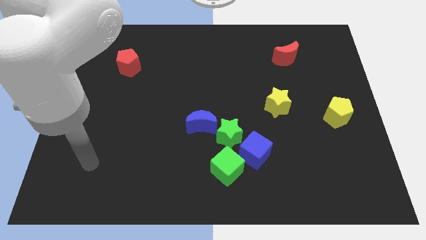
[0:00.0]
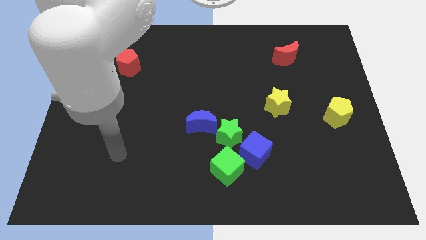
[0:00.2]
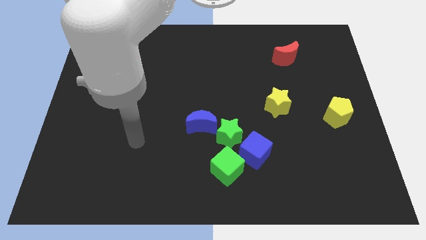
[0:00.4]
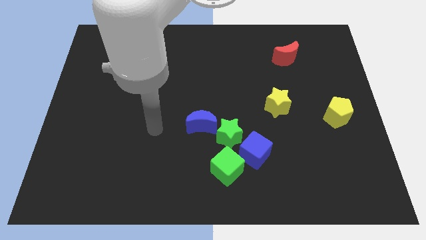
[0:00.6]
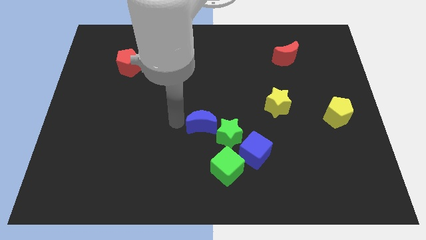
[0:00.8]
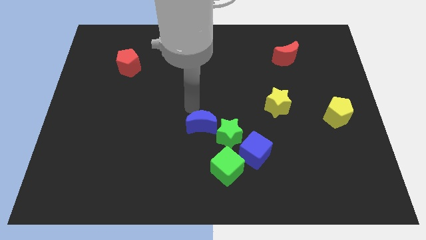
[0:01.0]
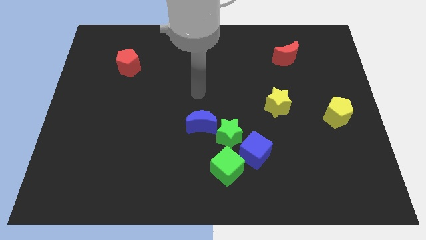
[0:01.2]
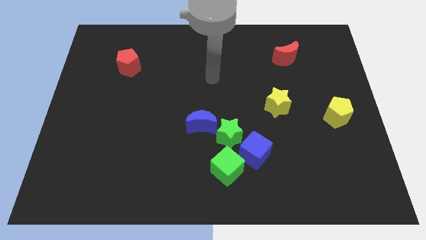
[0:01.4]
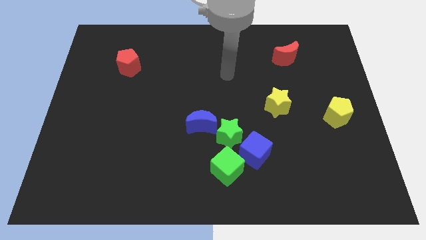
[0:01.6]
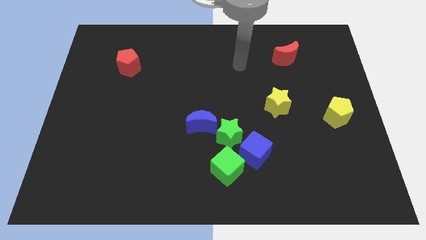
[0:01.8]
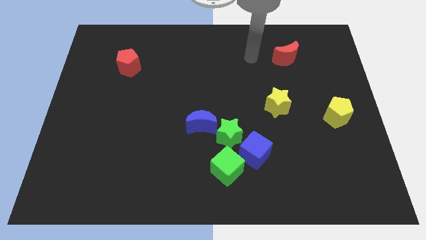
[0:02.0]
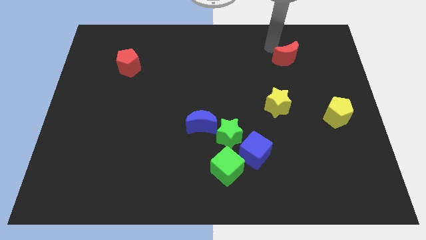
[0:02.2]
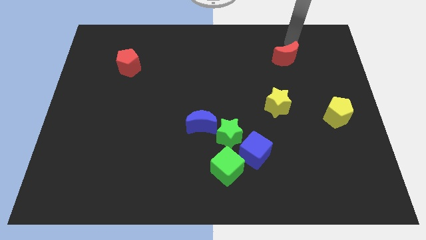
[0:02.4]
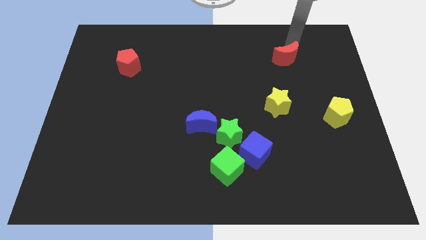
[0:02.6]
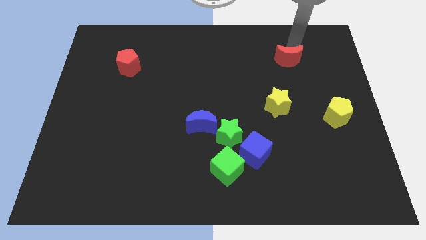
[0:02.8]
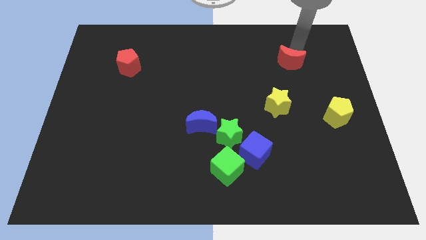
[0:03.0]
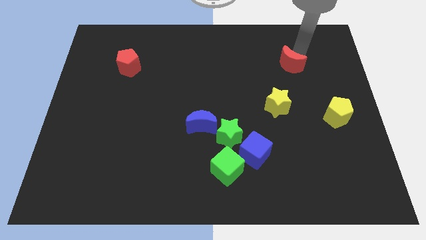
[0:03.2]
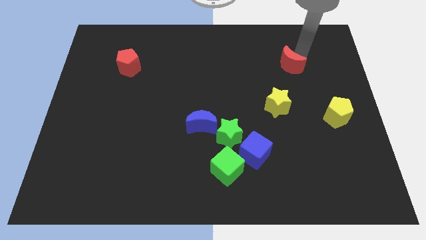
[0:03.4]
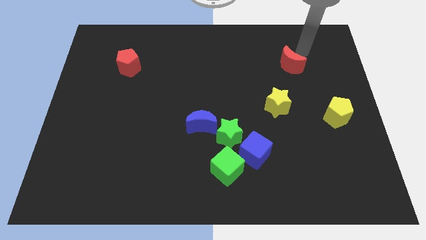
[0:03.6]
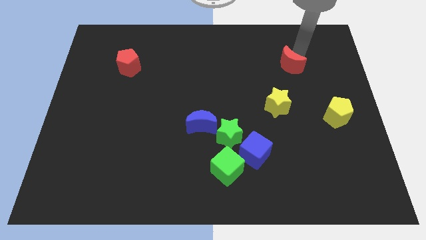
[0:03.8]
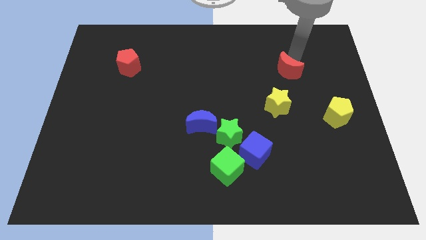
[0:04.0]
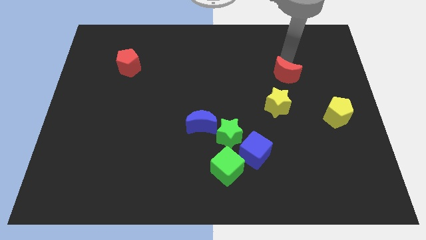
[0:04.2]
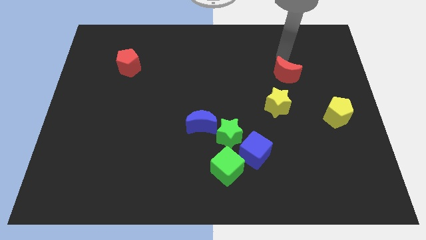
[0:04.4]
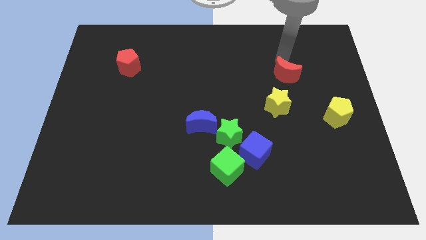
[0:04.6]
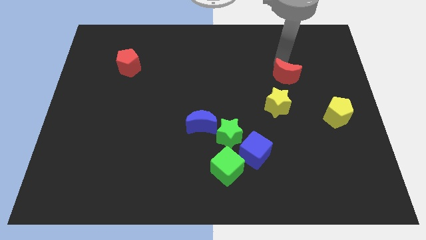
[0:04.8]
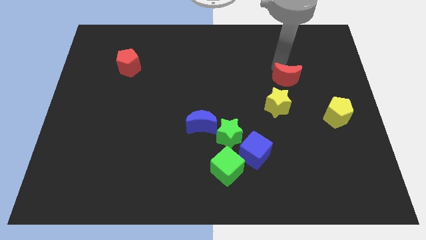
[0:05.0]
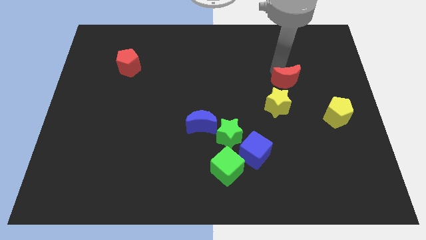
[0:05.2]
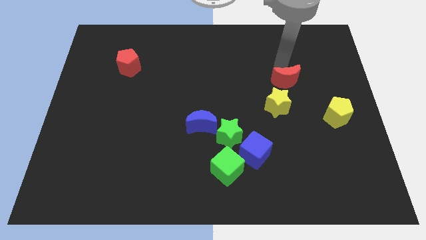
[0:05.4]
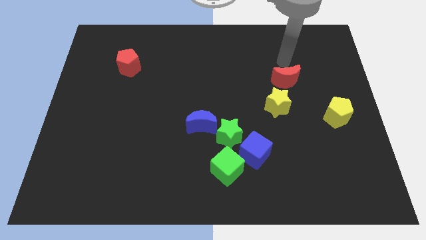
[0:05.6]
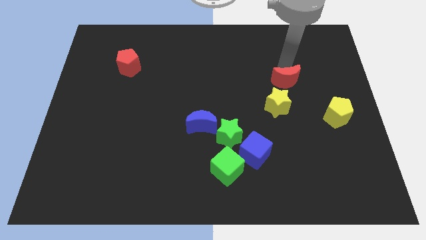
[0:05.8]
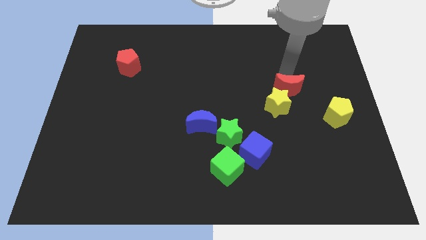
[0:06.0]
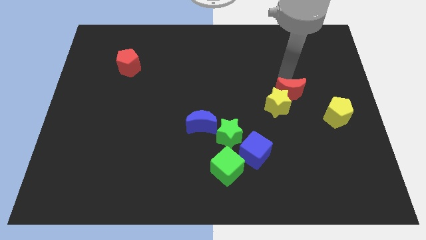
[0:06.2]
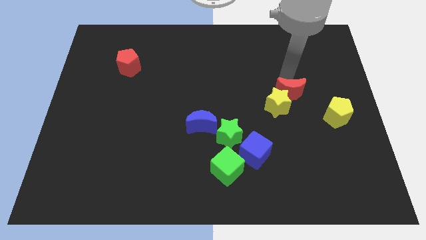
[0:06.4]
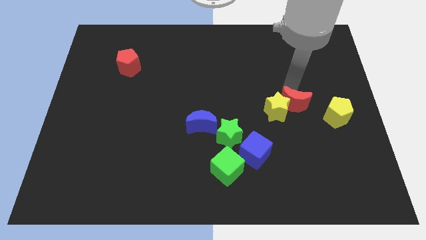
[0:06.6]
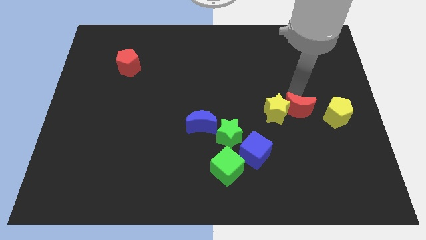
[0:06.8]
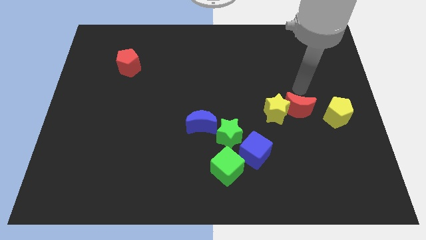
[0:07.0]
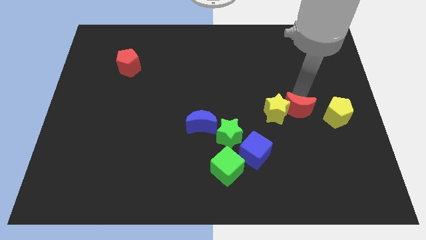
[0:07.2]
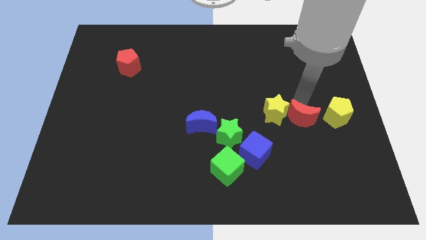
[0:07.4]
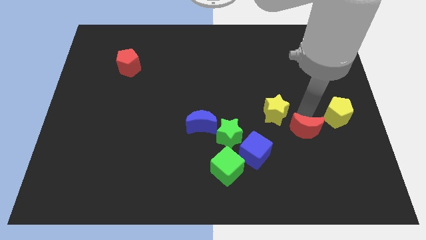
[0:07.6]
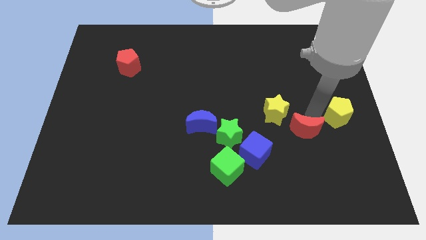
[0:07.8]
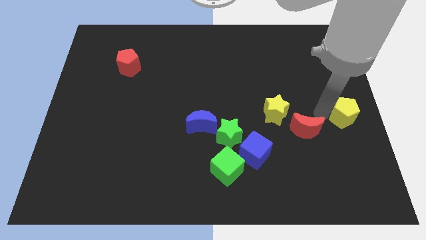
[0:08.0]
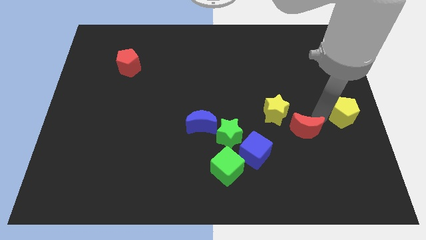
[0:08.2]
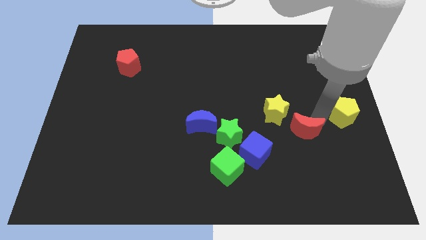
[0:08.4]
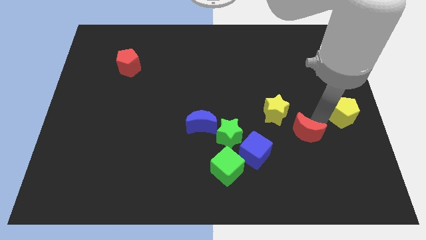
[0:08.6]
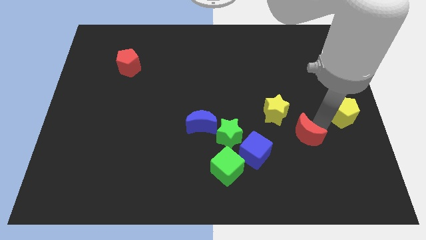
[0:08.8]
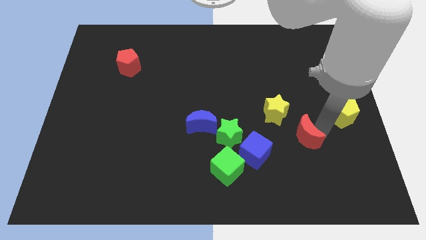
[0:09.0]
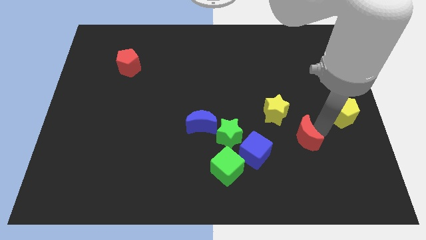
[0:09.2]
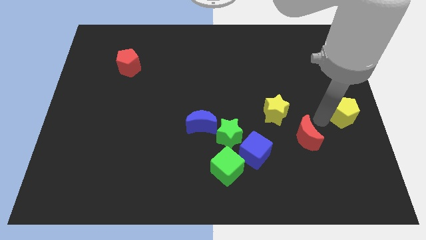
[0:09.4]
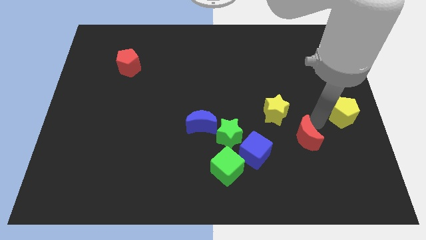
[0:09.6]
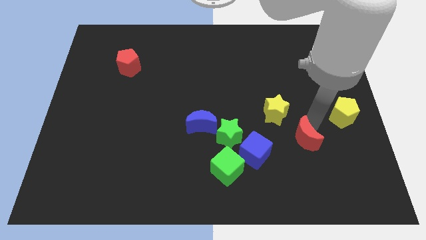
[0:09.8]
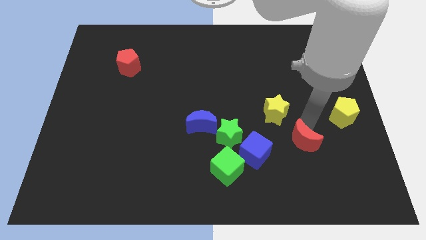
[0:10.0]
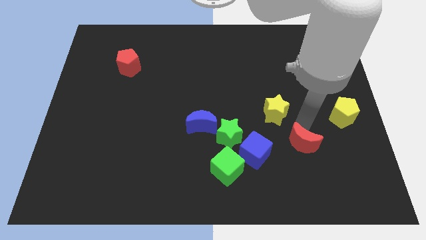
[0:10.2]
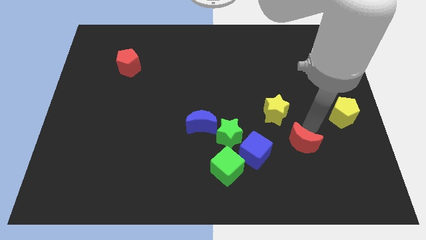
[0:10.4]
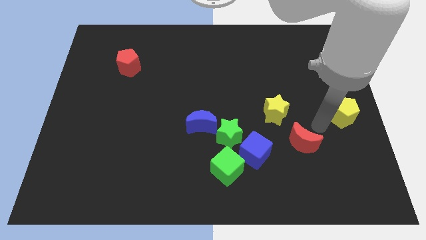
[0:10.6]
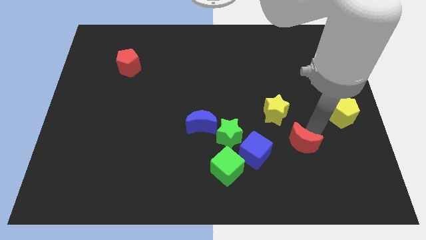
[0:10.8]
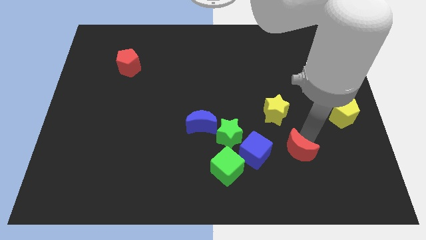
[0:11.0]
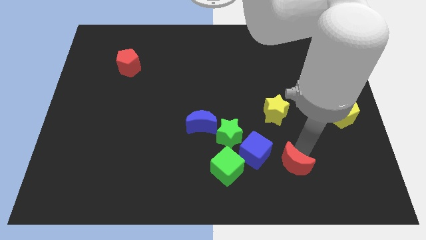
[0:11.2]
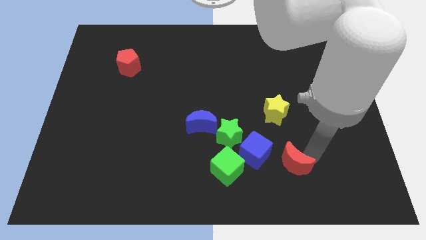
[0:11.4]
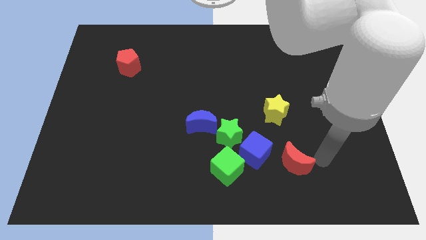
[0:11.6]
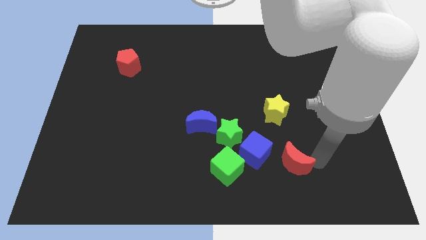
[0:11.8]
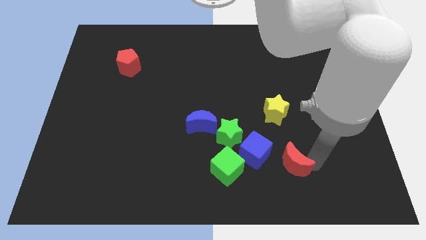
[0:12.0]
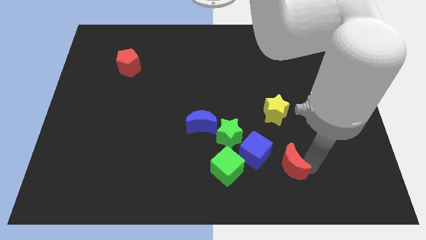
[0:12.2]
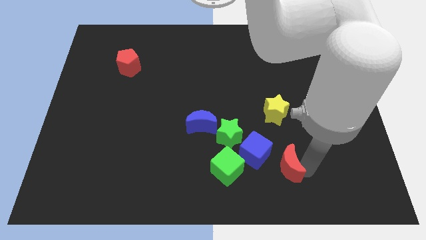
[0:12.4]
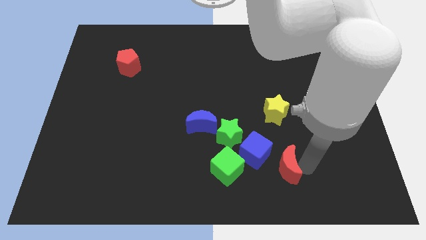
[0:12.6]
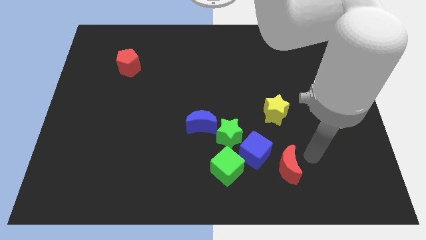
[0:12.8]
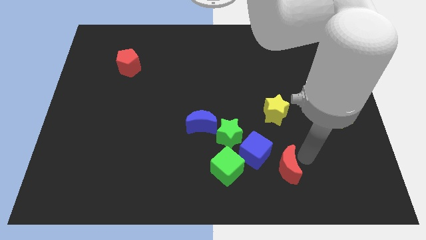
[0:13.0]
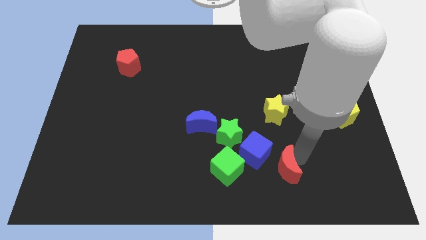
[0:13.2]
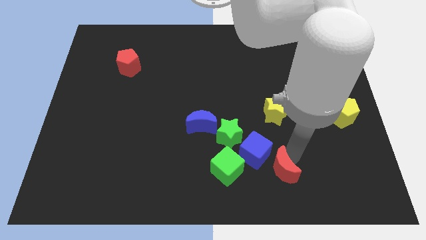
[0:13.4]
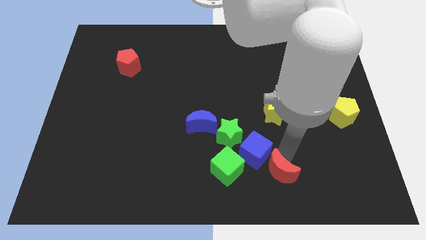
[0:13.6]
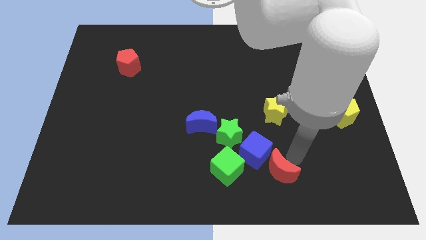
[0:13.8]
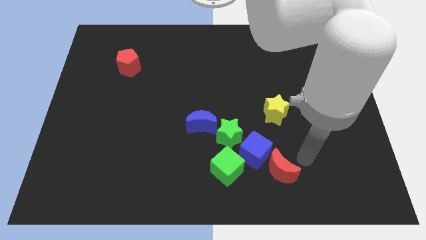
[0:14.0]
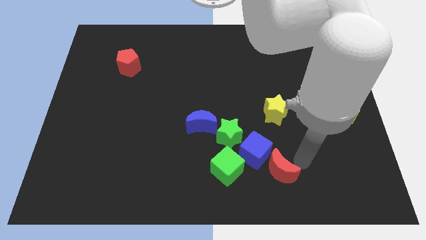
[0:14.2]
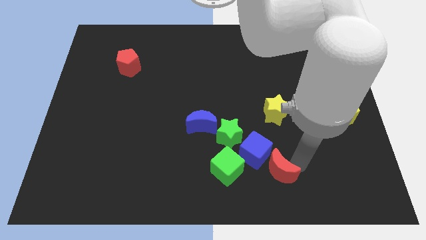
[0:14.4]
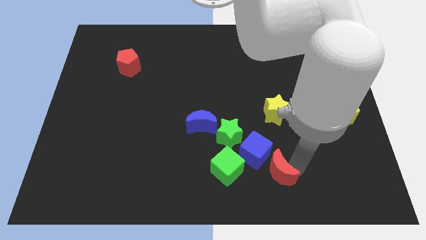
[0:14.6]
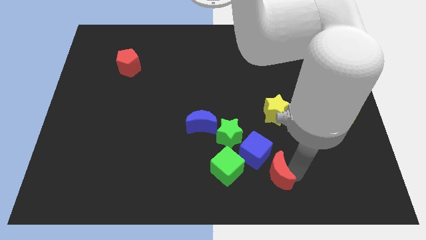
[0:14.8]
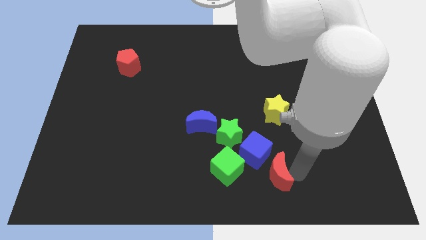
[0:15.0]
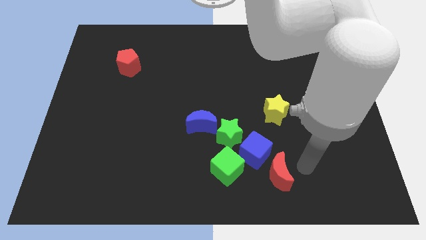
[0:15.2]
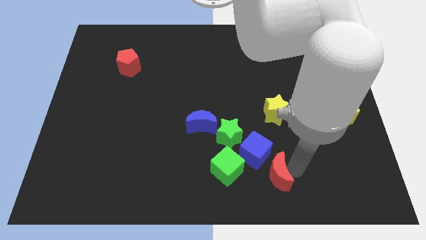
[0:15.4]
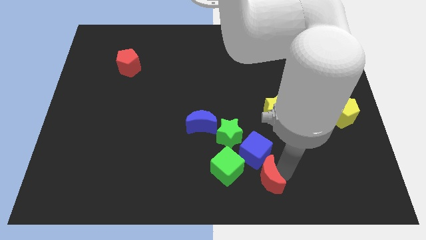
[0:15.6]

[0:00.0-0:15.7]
move the red moon to the bottom side
